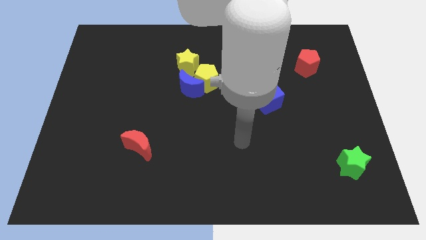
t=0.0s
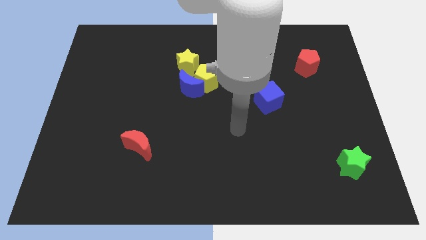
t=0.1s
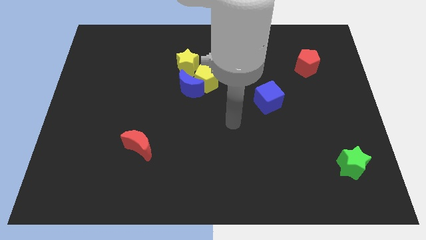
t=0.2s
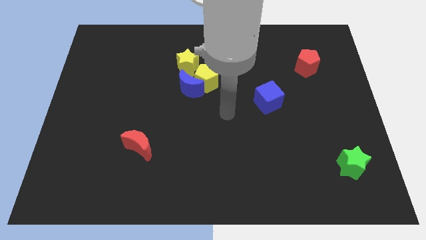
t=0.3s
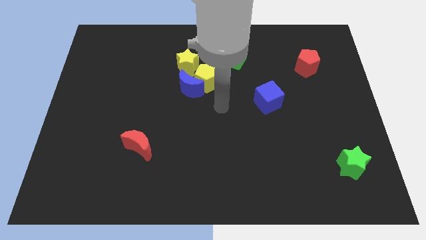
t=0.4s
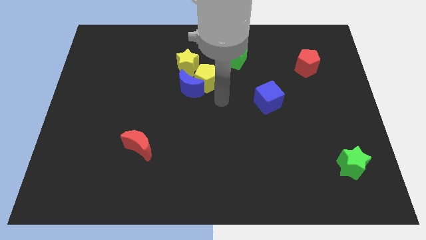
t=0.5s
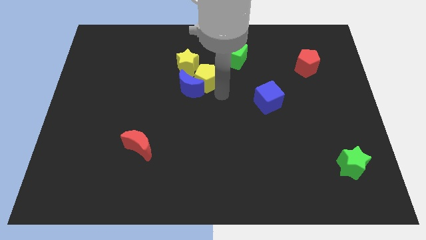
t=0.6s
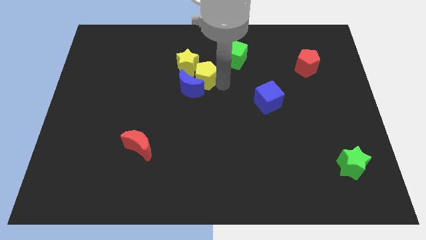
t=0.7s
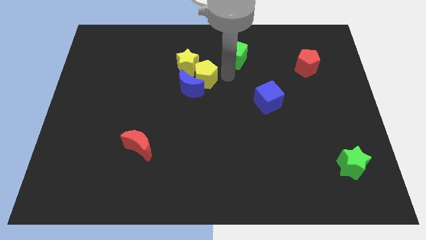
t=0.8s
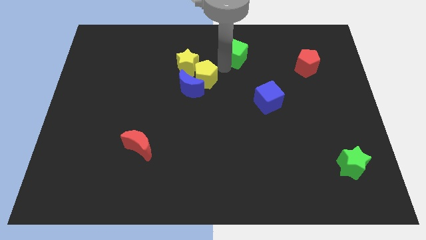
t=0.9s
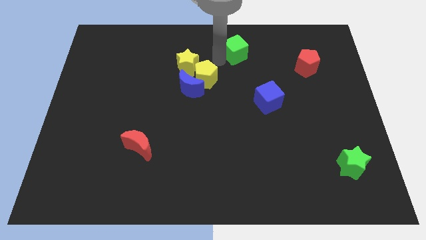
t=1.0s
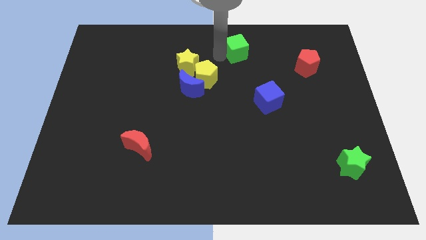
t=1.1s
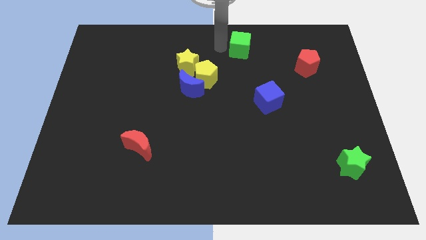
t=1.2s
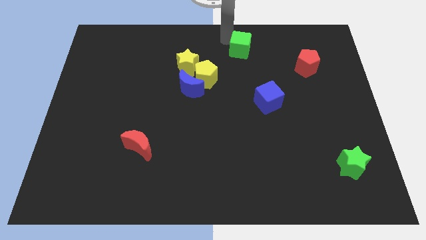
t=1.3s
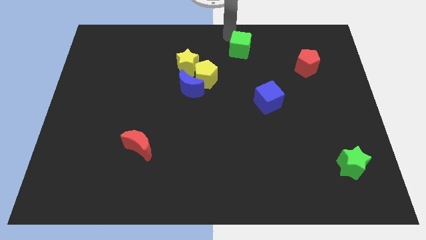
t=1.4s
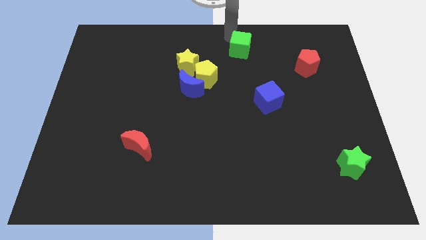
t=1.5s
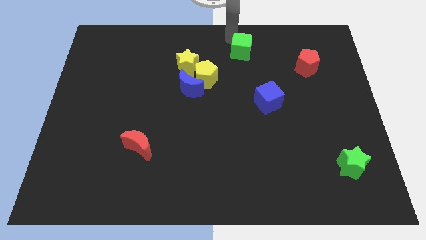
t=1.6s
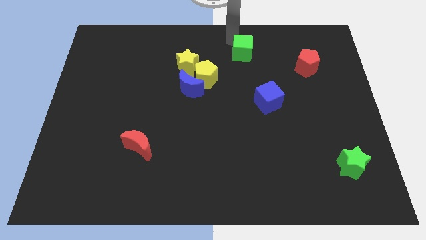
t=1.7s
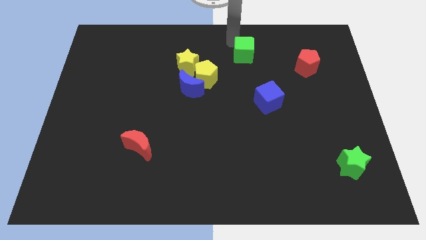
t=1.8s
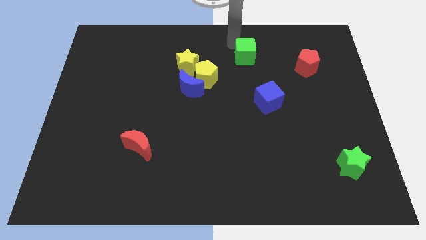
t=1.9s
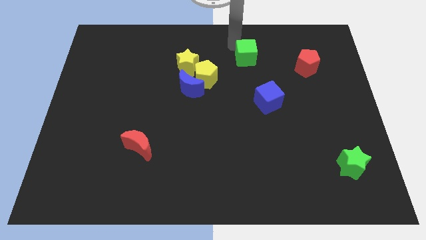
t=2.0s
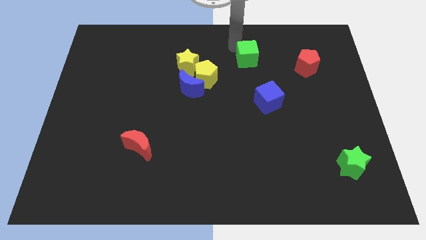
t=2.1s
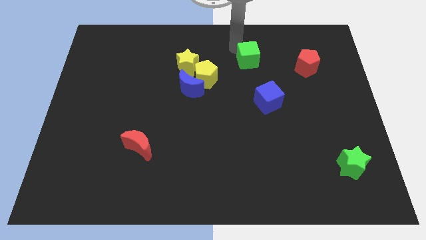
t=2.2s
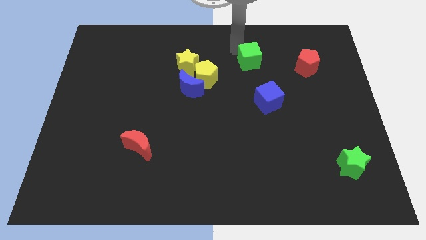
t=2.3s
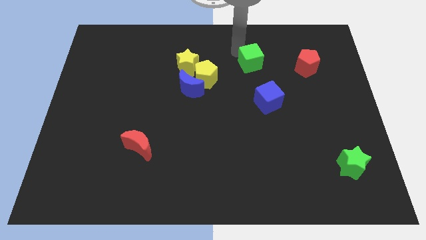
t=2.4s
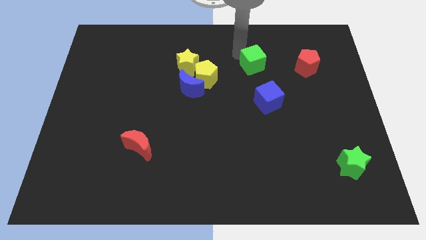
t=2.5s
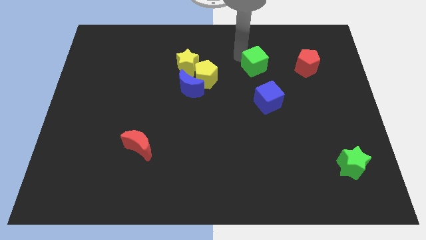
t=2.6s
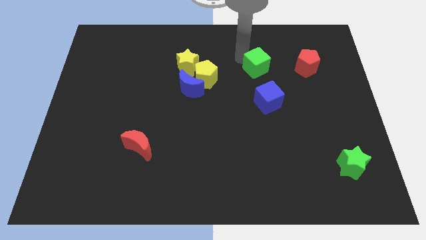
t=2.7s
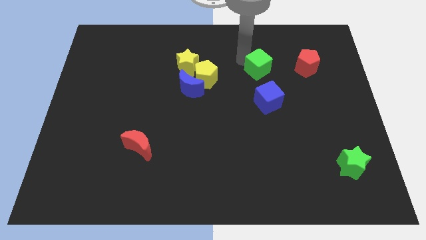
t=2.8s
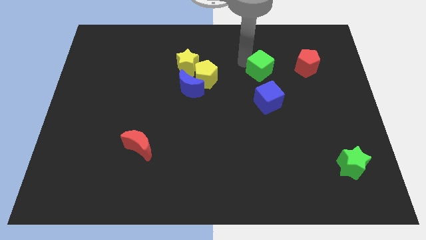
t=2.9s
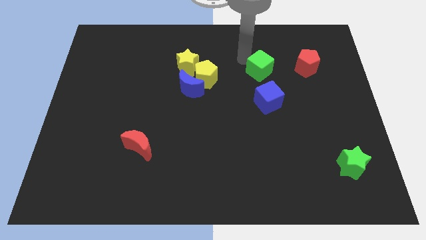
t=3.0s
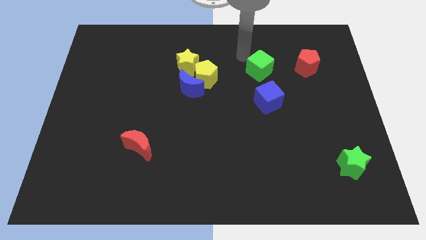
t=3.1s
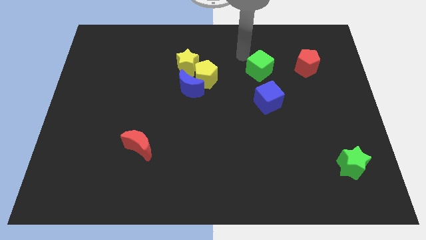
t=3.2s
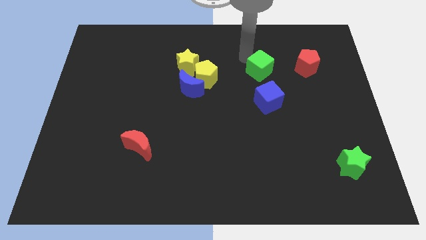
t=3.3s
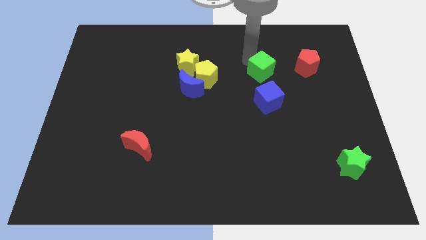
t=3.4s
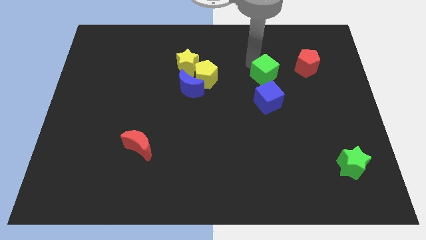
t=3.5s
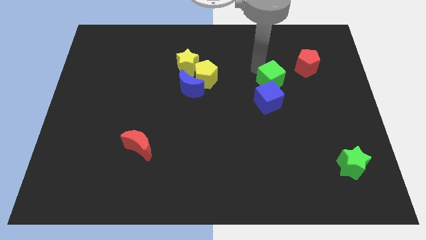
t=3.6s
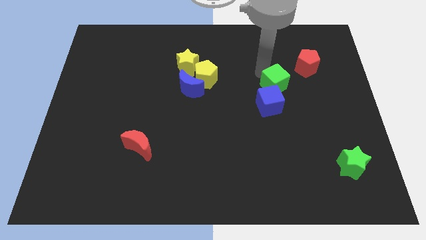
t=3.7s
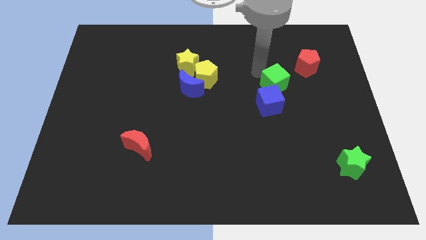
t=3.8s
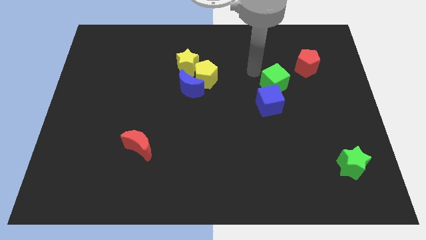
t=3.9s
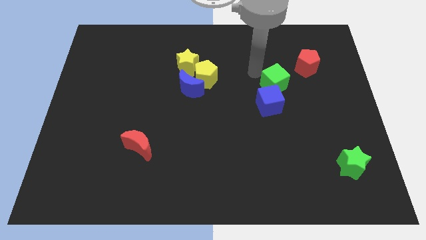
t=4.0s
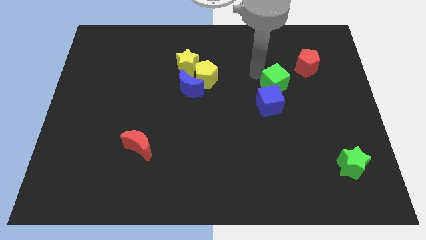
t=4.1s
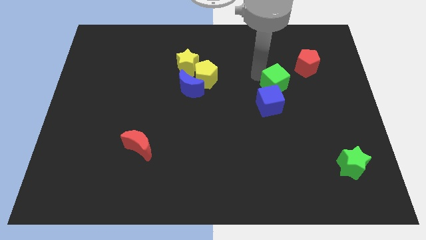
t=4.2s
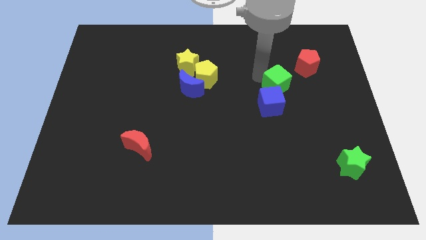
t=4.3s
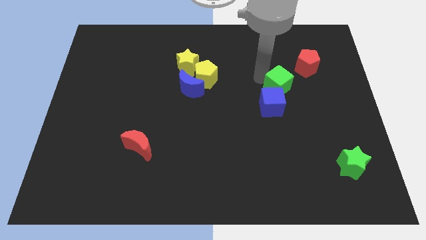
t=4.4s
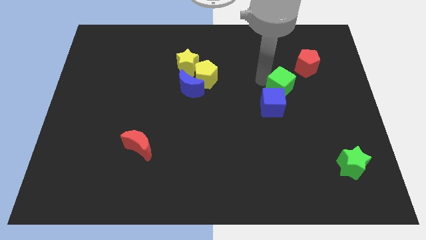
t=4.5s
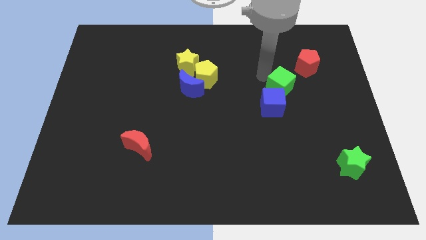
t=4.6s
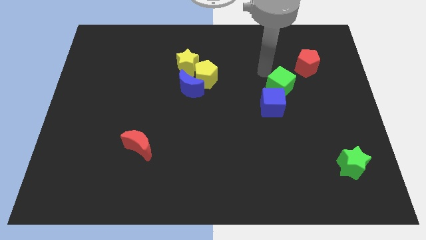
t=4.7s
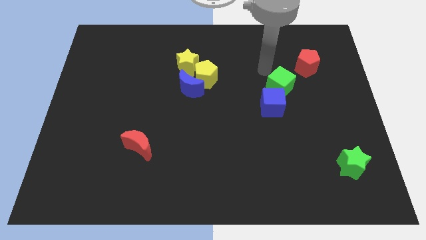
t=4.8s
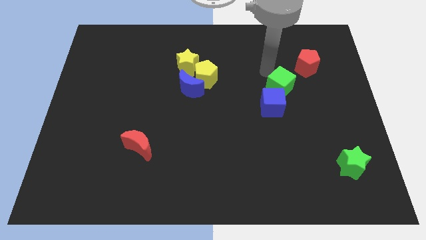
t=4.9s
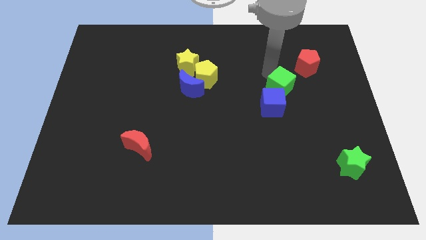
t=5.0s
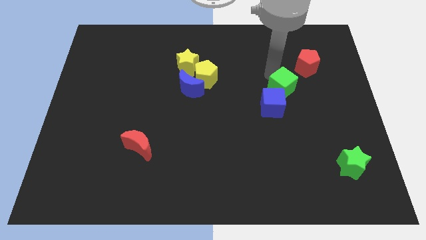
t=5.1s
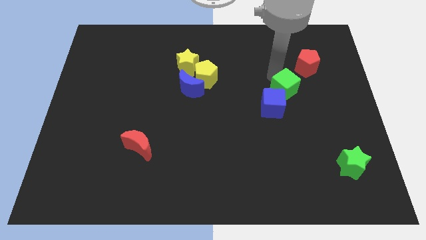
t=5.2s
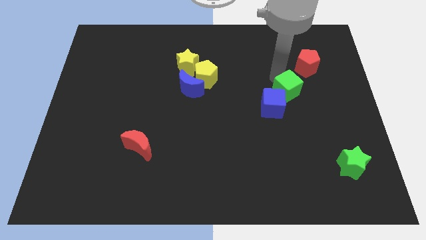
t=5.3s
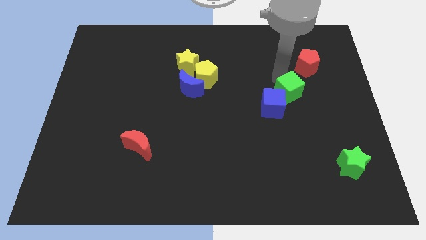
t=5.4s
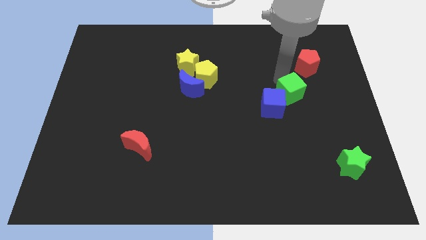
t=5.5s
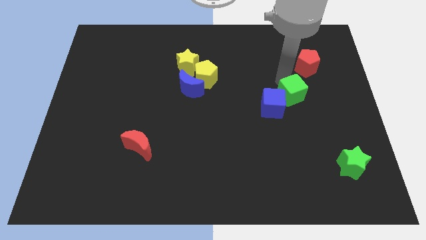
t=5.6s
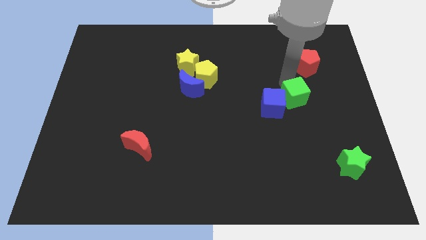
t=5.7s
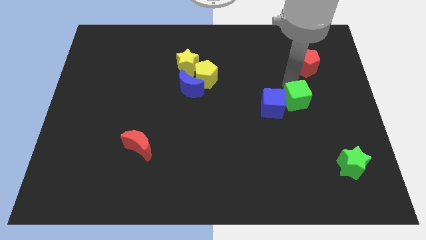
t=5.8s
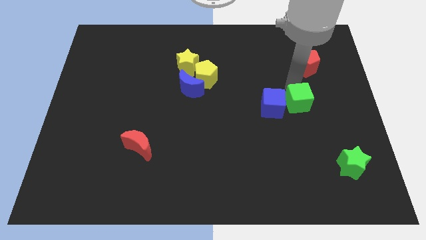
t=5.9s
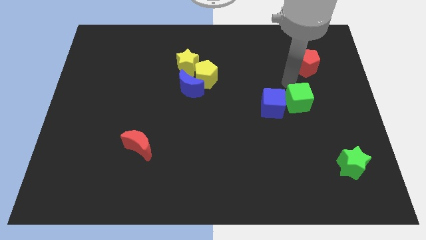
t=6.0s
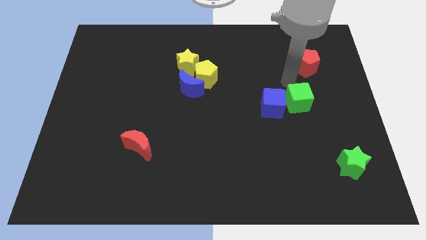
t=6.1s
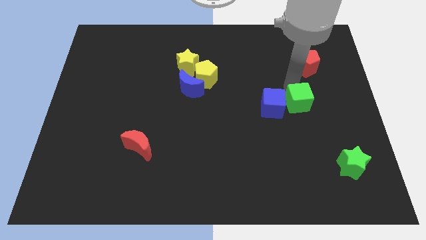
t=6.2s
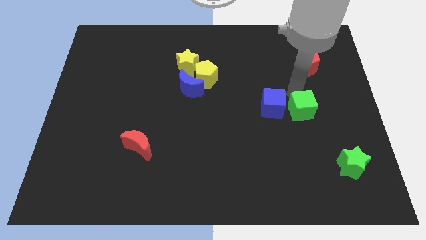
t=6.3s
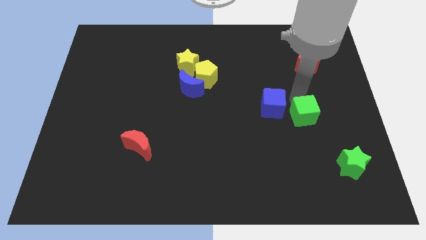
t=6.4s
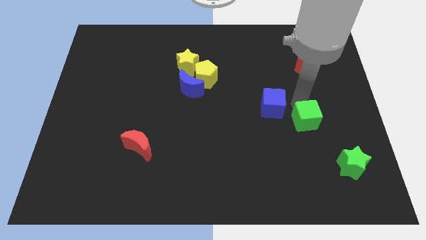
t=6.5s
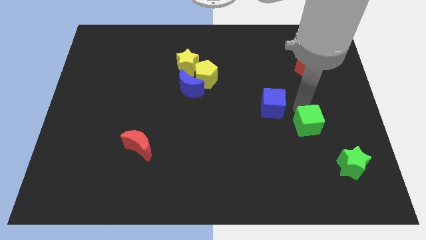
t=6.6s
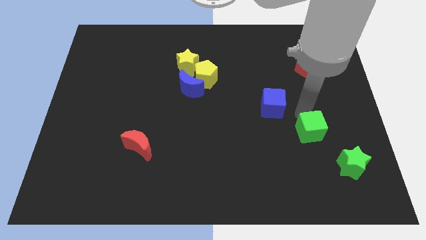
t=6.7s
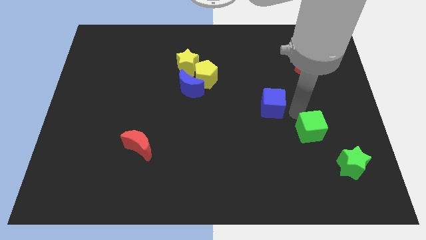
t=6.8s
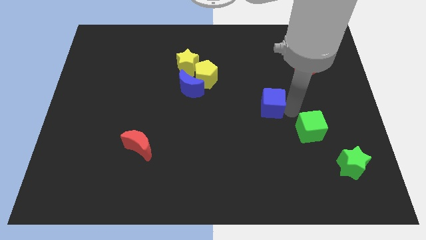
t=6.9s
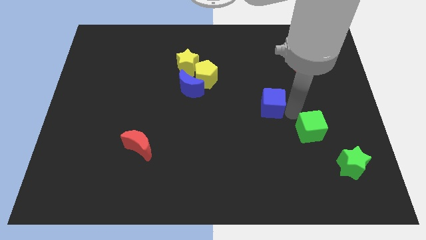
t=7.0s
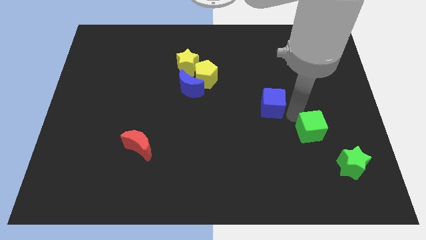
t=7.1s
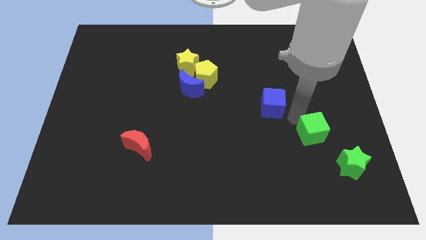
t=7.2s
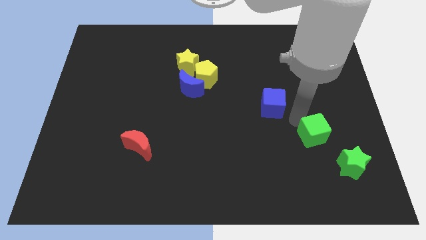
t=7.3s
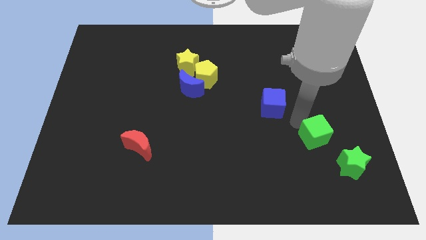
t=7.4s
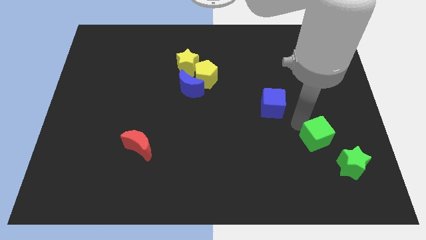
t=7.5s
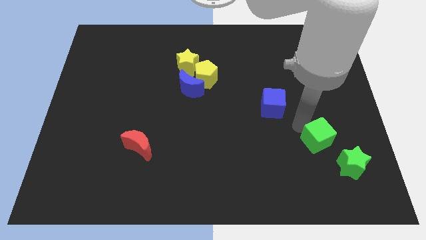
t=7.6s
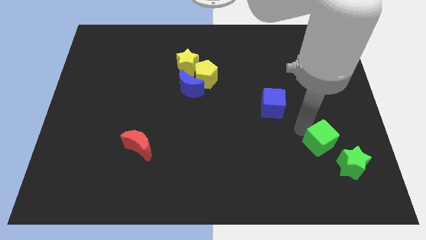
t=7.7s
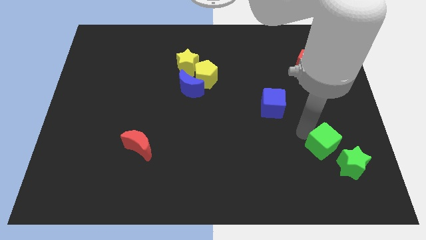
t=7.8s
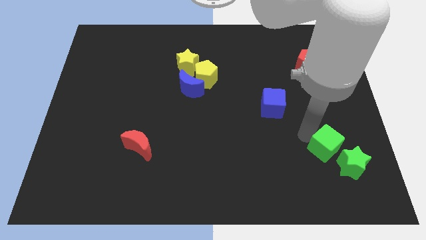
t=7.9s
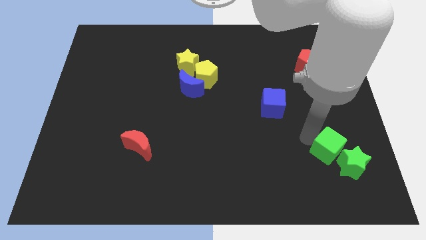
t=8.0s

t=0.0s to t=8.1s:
push the green cube to the green star
